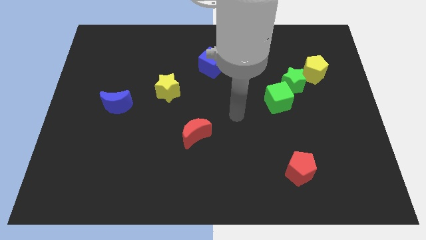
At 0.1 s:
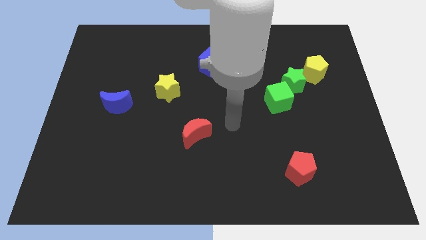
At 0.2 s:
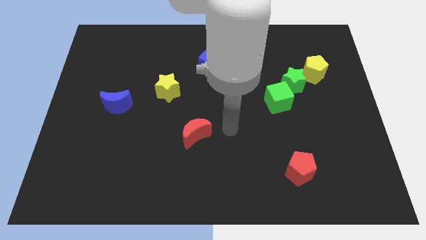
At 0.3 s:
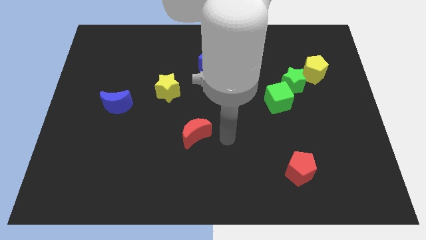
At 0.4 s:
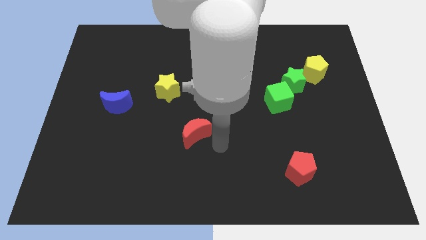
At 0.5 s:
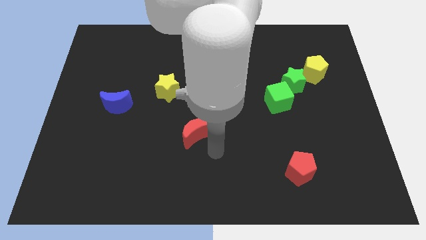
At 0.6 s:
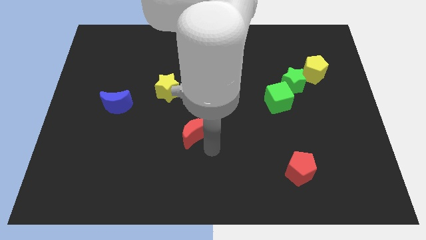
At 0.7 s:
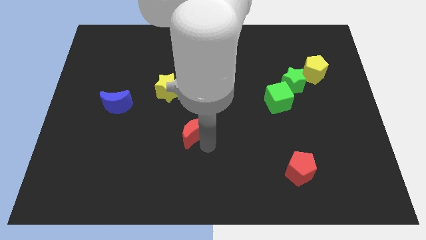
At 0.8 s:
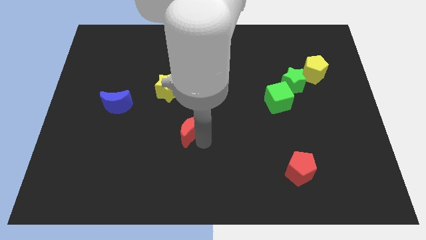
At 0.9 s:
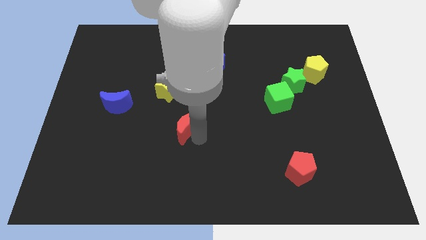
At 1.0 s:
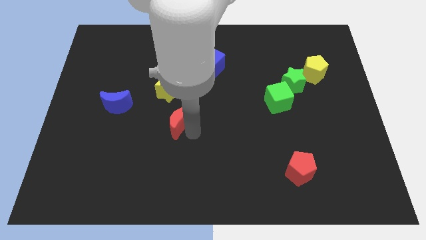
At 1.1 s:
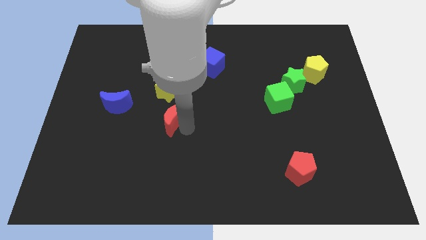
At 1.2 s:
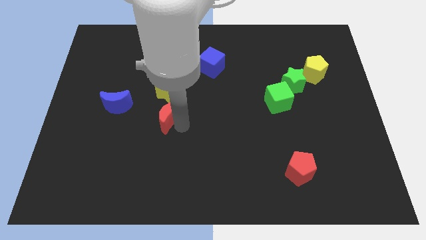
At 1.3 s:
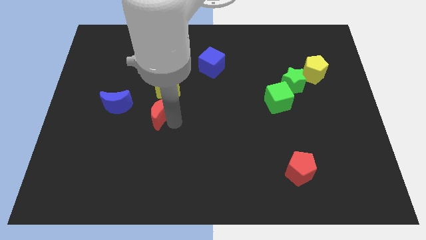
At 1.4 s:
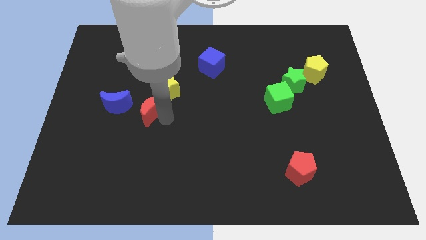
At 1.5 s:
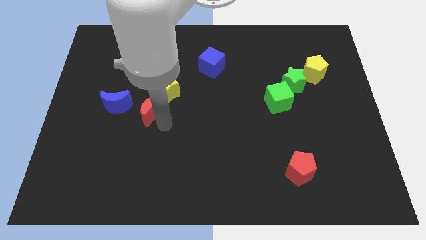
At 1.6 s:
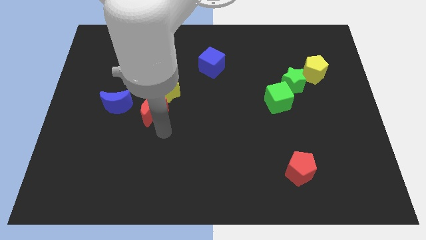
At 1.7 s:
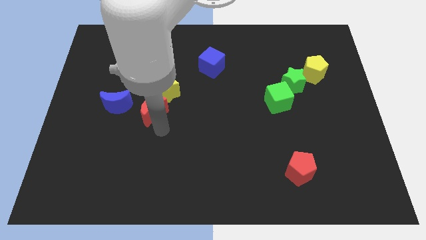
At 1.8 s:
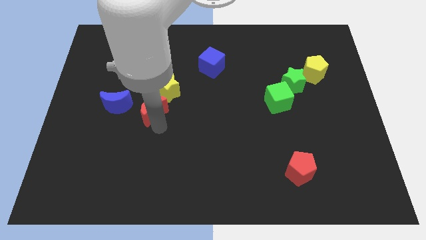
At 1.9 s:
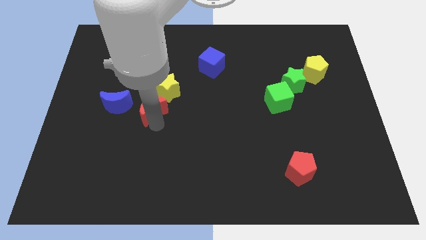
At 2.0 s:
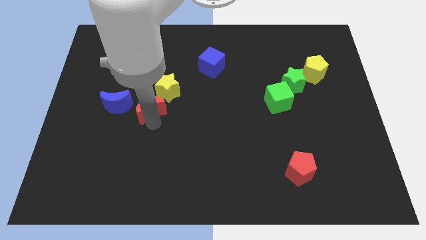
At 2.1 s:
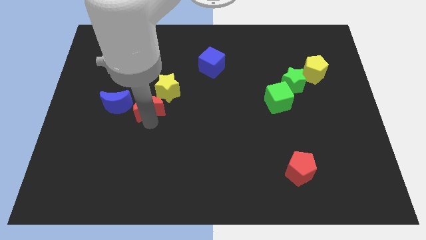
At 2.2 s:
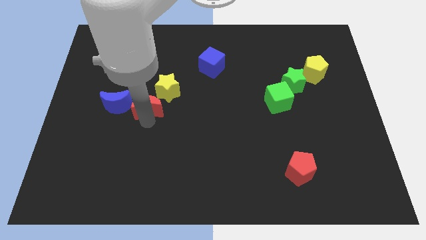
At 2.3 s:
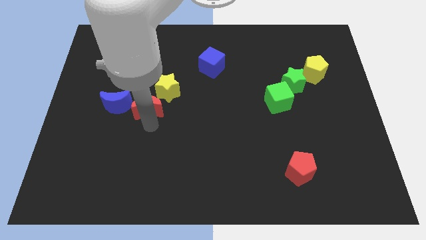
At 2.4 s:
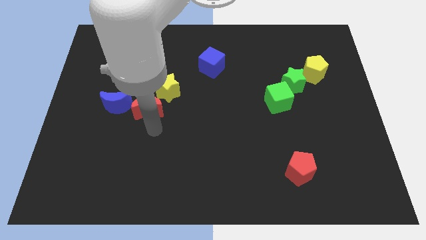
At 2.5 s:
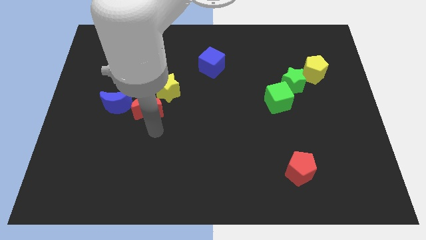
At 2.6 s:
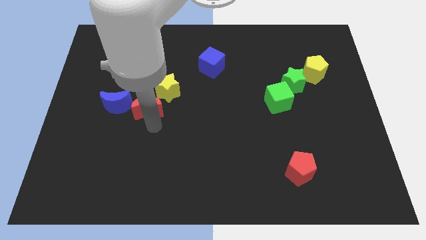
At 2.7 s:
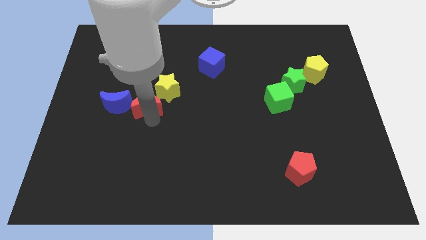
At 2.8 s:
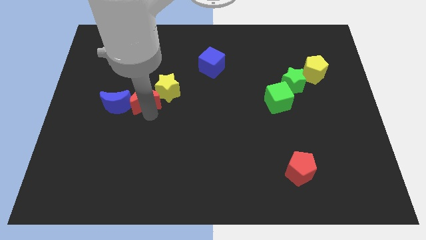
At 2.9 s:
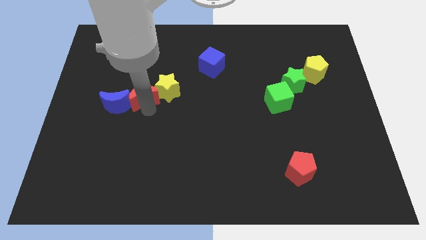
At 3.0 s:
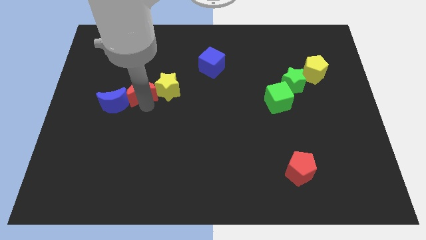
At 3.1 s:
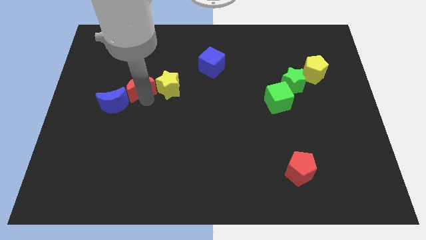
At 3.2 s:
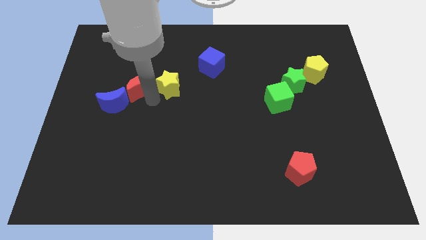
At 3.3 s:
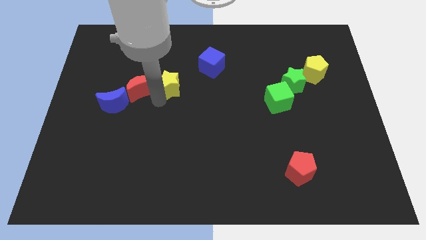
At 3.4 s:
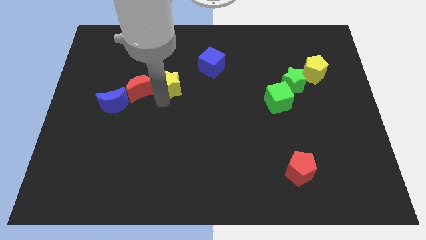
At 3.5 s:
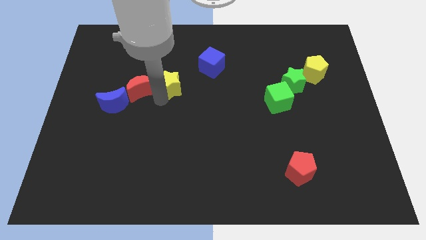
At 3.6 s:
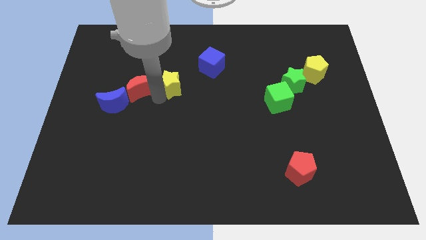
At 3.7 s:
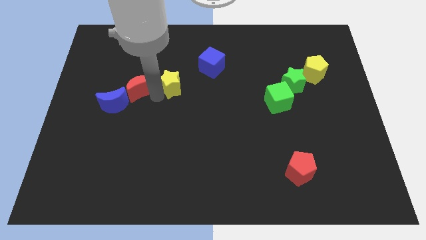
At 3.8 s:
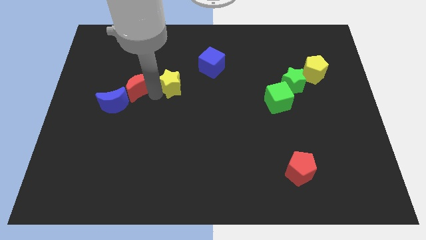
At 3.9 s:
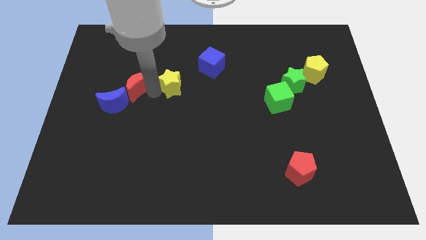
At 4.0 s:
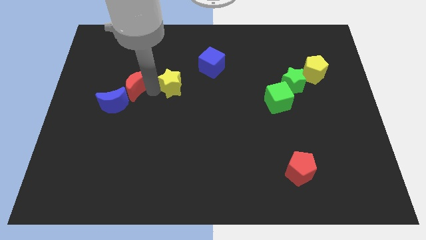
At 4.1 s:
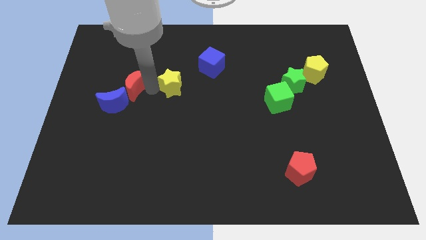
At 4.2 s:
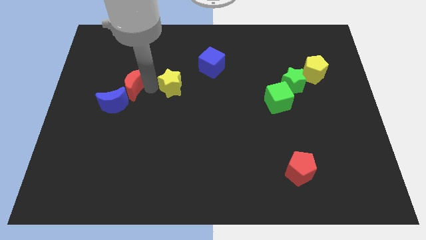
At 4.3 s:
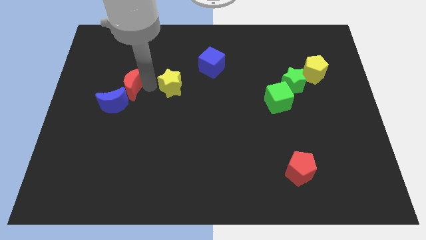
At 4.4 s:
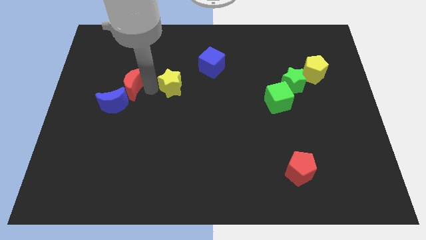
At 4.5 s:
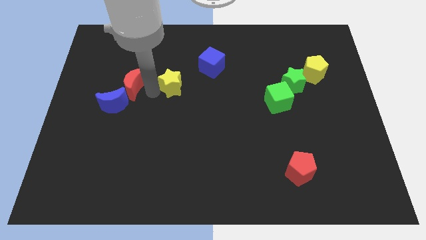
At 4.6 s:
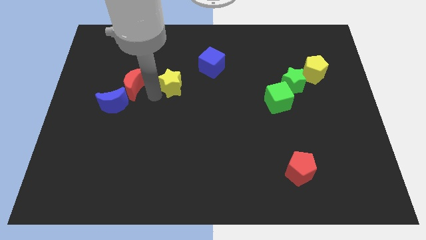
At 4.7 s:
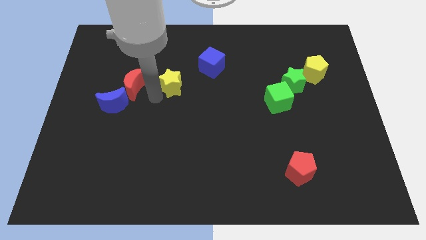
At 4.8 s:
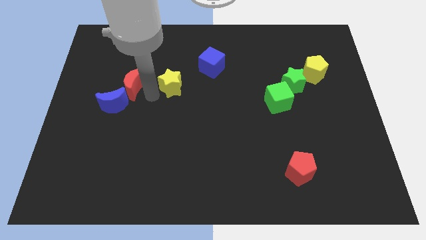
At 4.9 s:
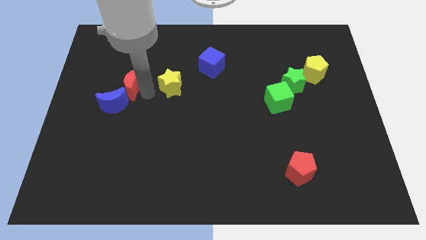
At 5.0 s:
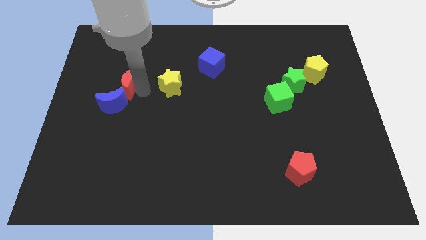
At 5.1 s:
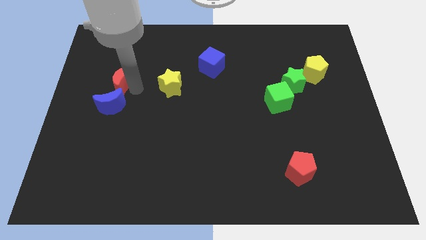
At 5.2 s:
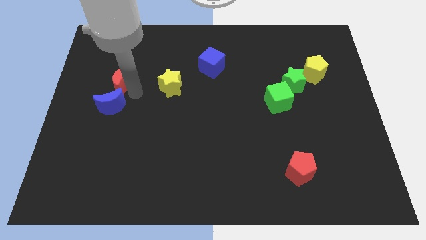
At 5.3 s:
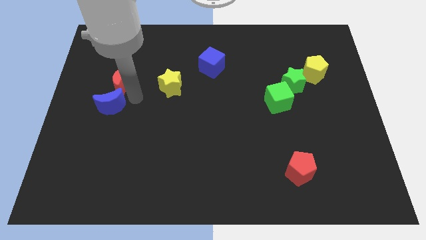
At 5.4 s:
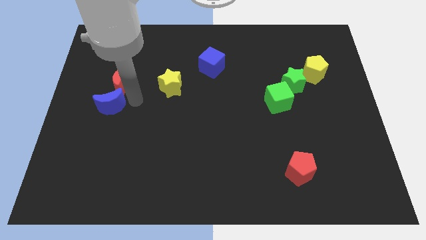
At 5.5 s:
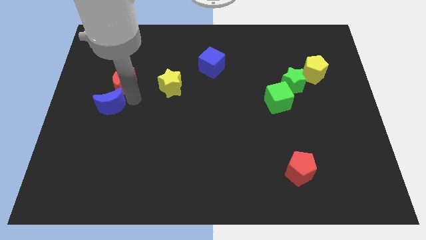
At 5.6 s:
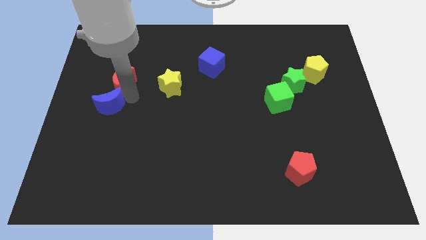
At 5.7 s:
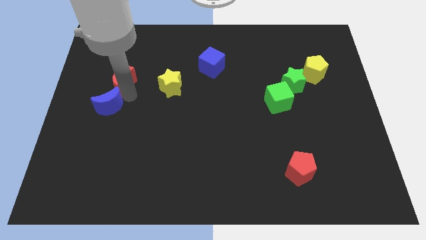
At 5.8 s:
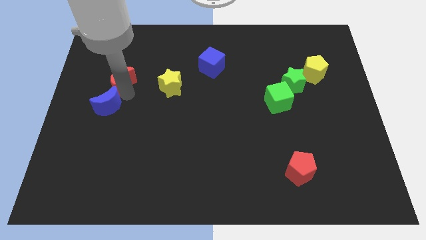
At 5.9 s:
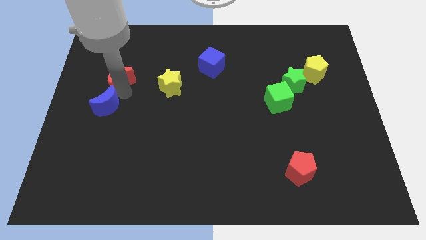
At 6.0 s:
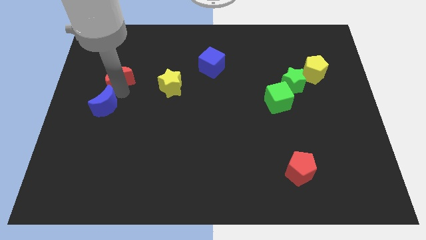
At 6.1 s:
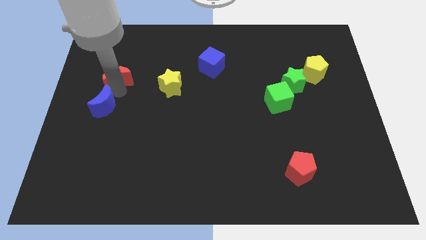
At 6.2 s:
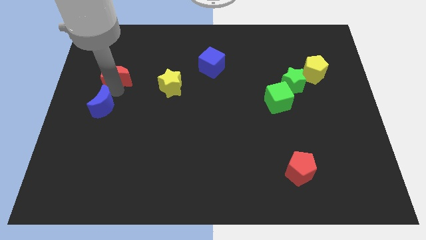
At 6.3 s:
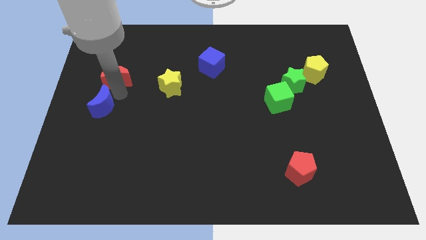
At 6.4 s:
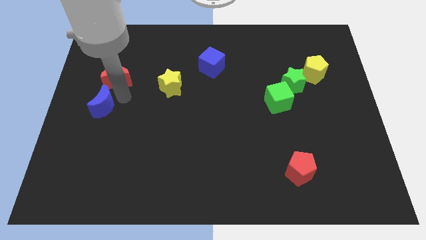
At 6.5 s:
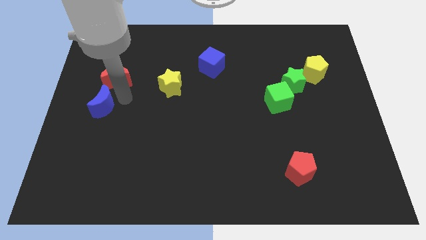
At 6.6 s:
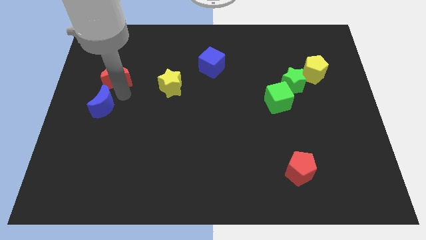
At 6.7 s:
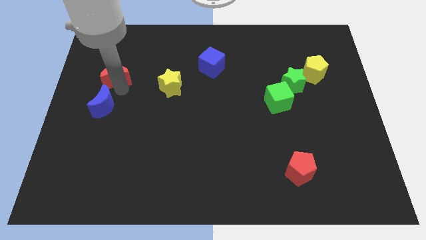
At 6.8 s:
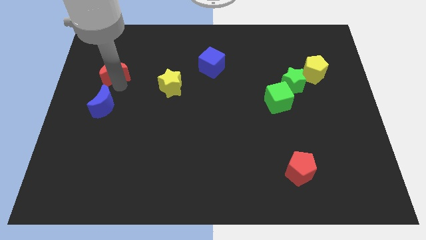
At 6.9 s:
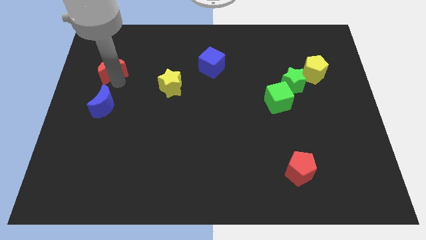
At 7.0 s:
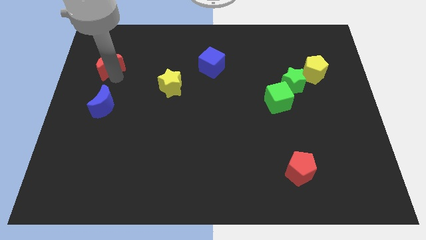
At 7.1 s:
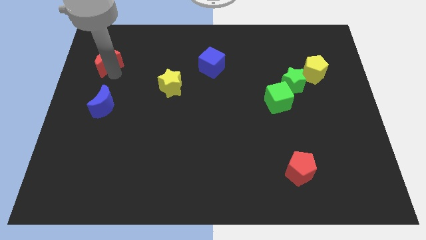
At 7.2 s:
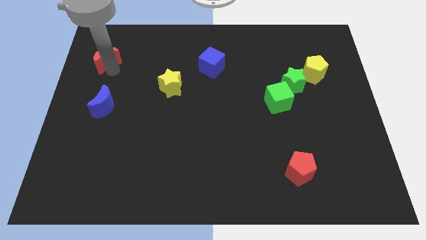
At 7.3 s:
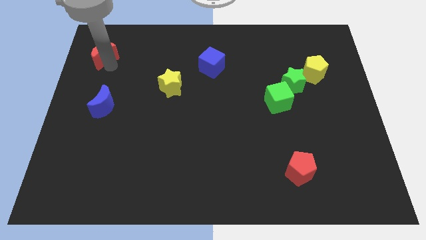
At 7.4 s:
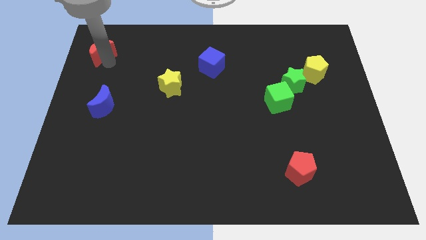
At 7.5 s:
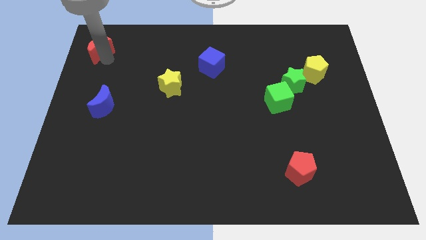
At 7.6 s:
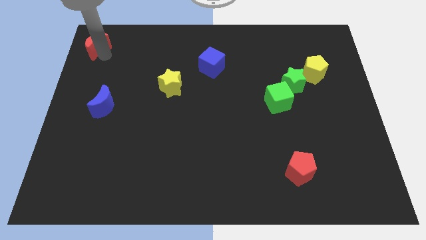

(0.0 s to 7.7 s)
push the red moon to the top left
